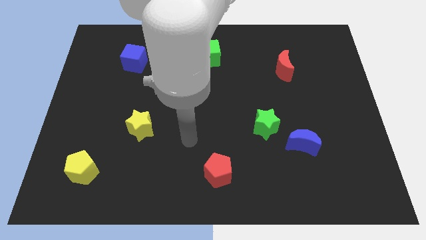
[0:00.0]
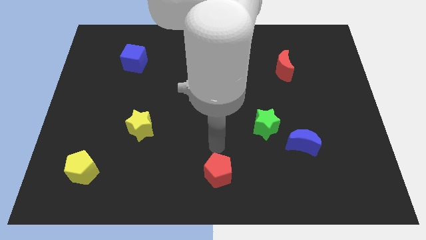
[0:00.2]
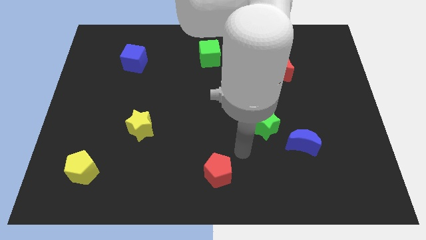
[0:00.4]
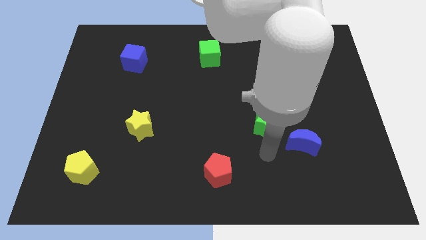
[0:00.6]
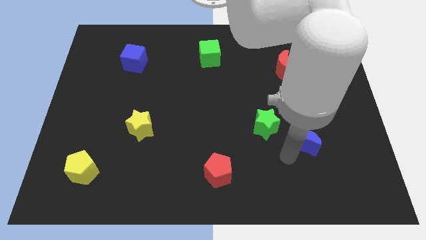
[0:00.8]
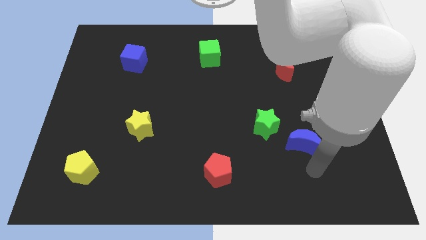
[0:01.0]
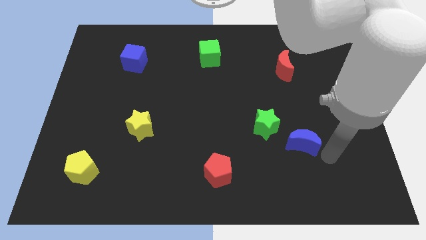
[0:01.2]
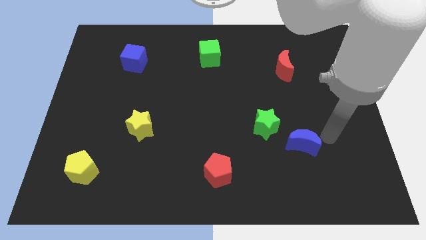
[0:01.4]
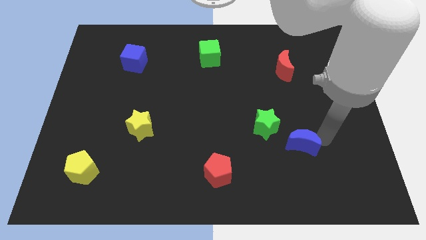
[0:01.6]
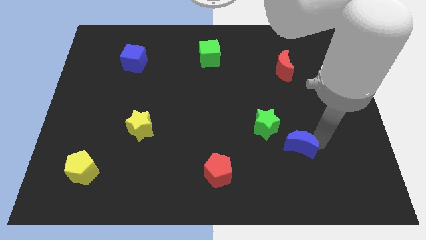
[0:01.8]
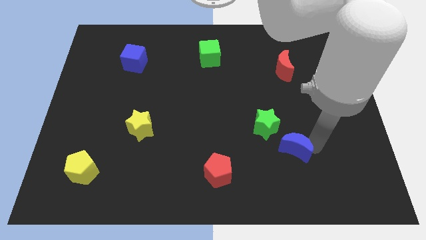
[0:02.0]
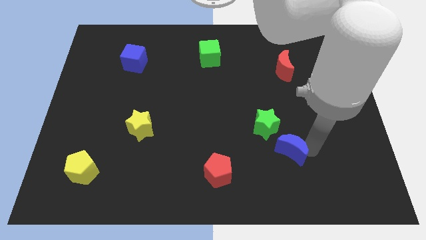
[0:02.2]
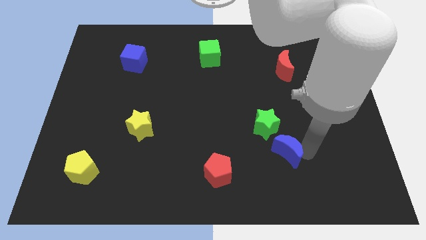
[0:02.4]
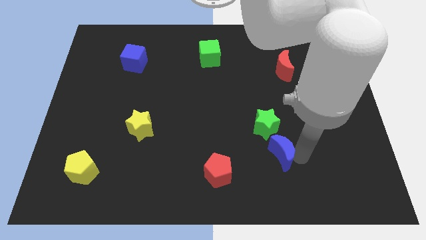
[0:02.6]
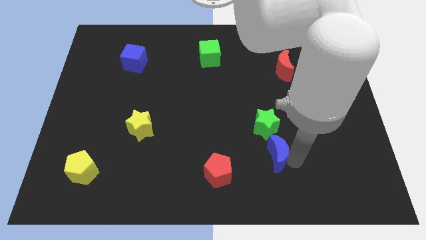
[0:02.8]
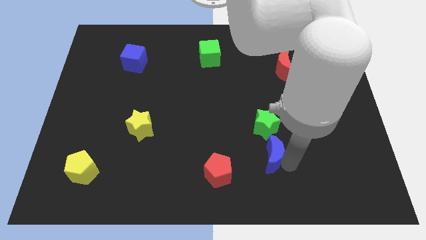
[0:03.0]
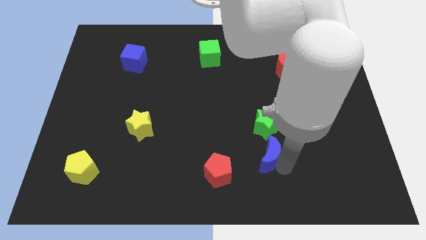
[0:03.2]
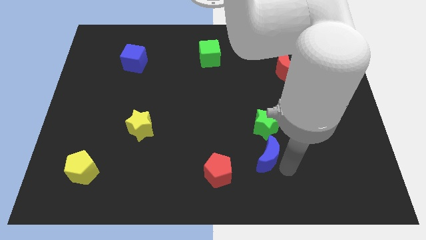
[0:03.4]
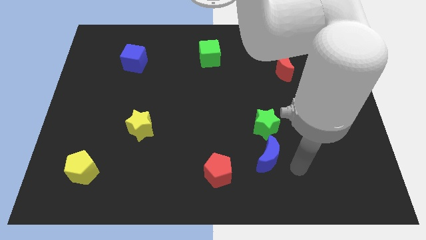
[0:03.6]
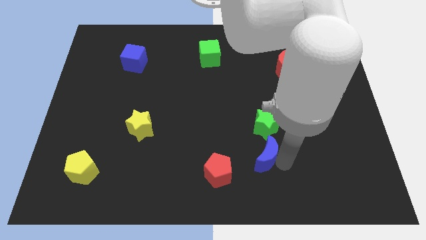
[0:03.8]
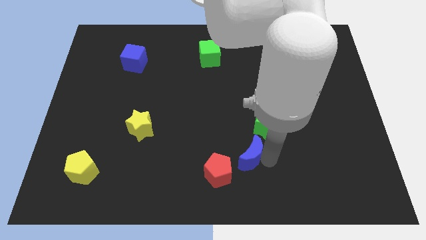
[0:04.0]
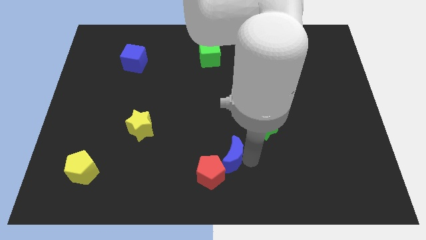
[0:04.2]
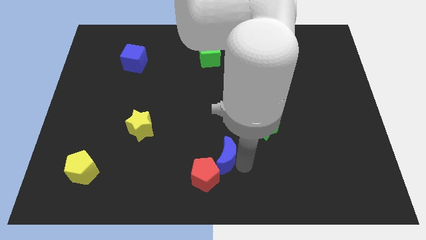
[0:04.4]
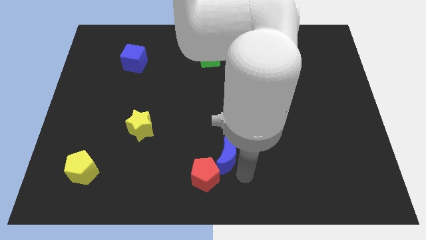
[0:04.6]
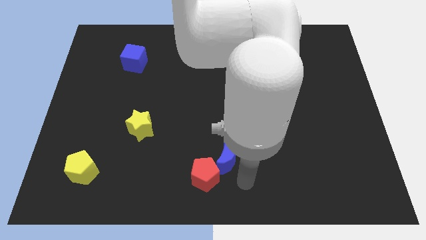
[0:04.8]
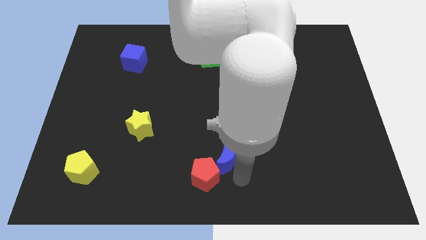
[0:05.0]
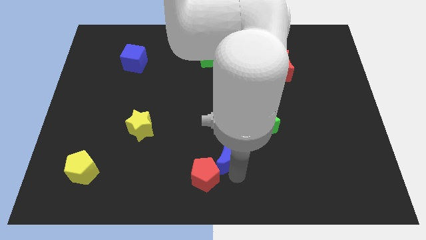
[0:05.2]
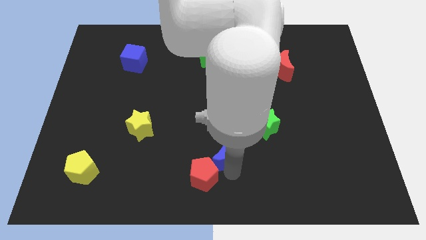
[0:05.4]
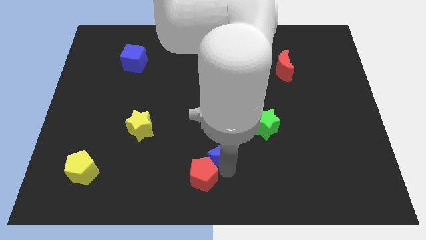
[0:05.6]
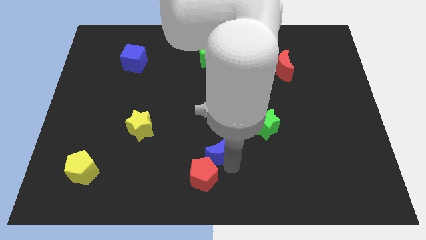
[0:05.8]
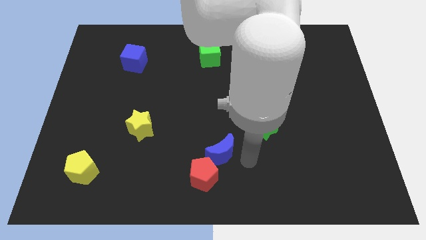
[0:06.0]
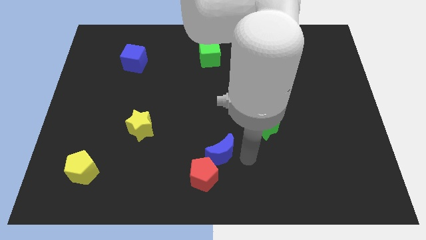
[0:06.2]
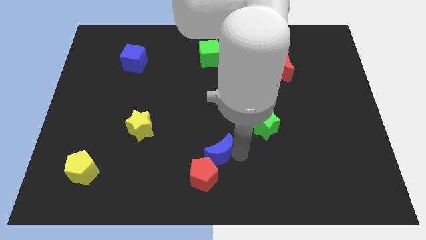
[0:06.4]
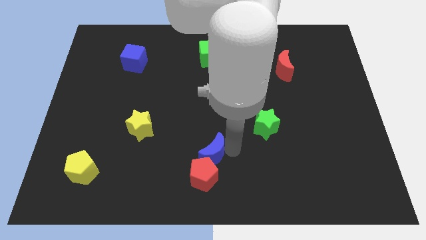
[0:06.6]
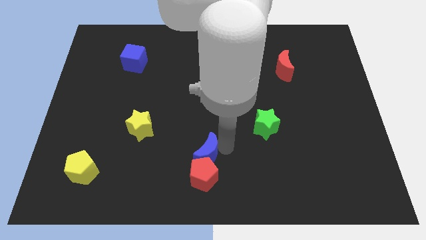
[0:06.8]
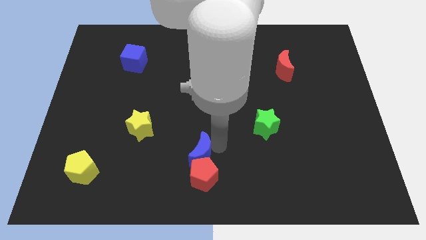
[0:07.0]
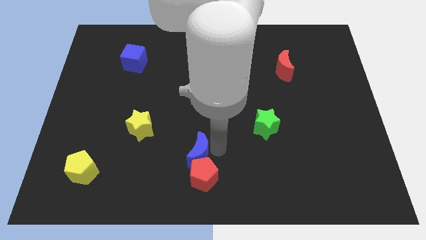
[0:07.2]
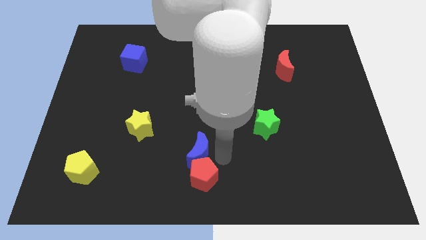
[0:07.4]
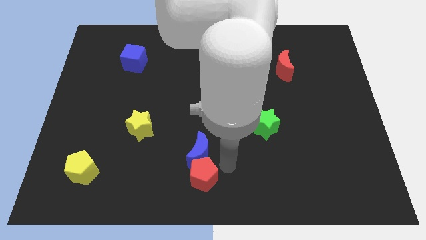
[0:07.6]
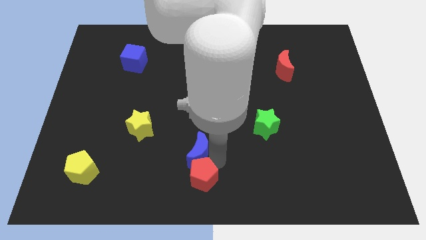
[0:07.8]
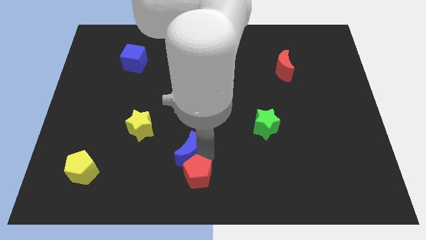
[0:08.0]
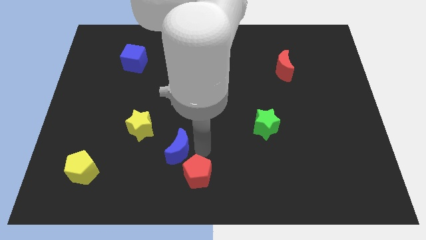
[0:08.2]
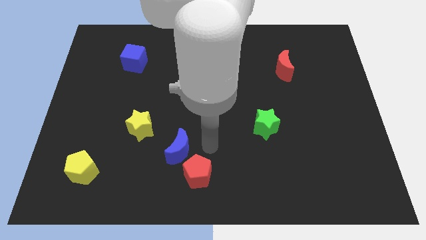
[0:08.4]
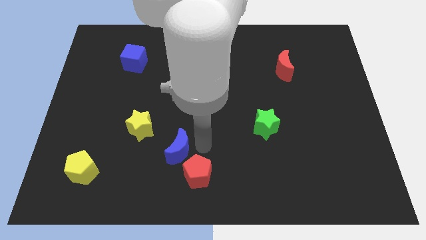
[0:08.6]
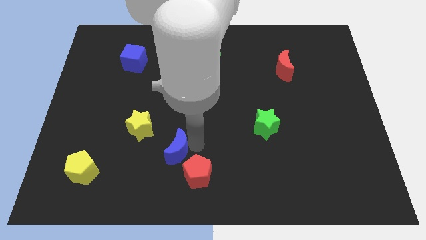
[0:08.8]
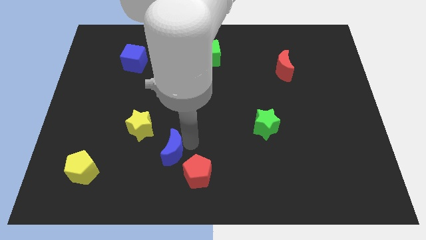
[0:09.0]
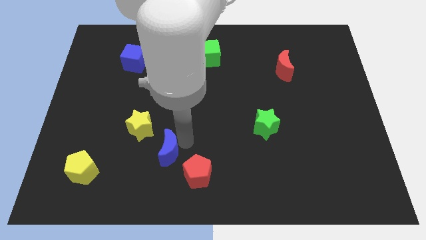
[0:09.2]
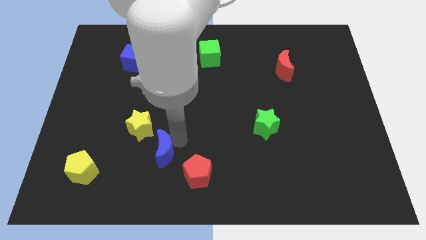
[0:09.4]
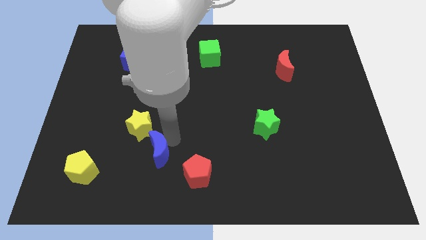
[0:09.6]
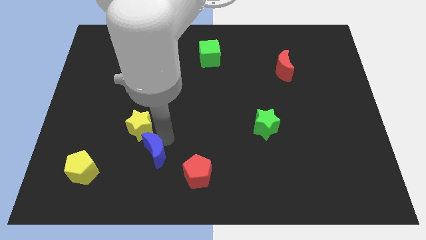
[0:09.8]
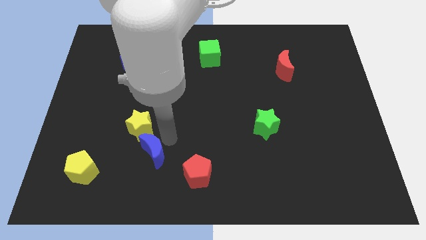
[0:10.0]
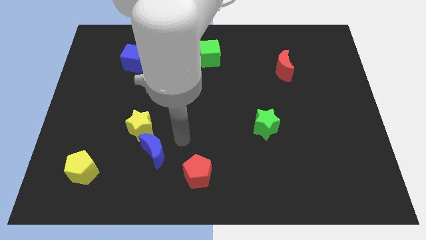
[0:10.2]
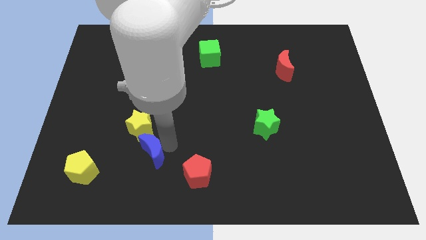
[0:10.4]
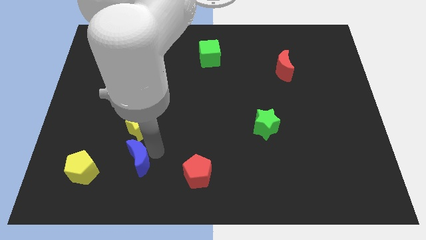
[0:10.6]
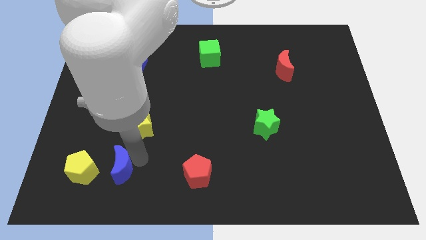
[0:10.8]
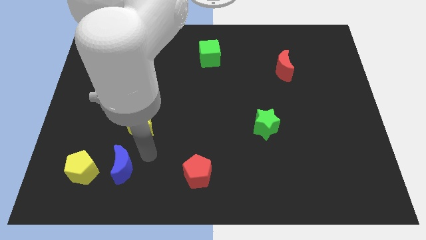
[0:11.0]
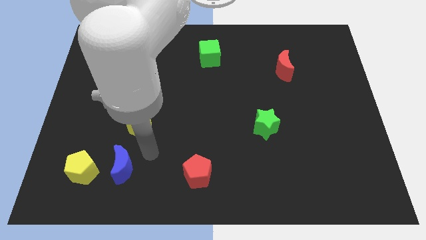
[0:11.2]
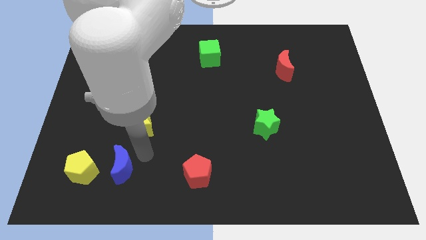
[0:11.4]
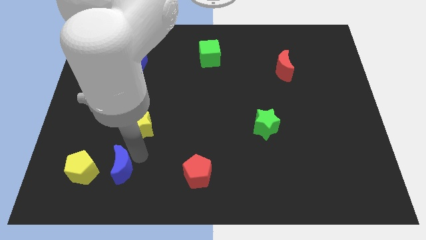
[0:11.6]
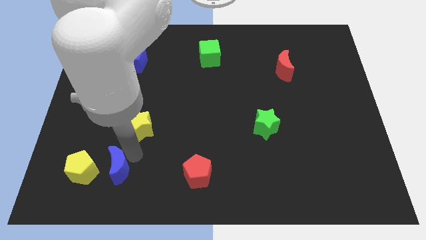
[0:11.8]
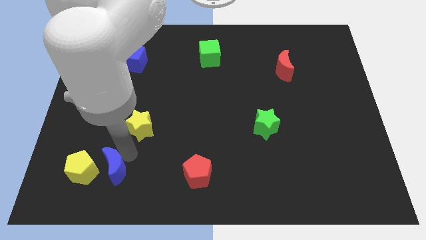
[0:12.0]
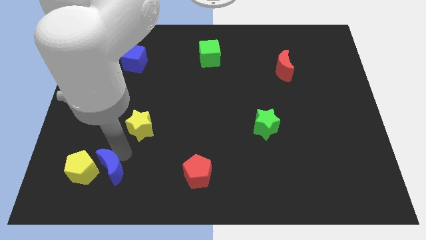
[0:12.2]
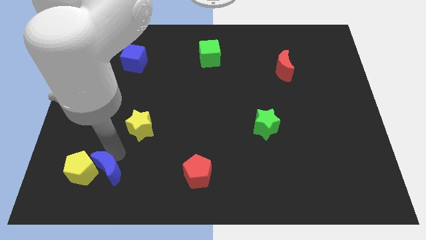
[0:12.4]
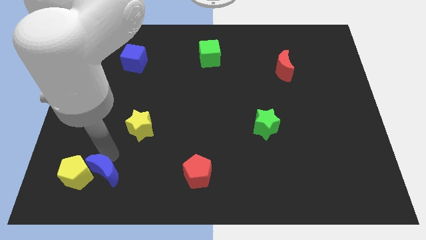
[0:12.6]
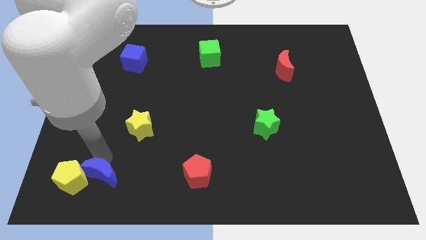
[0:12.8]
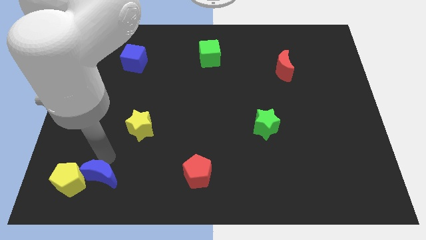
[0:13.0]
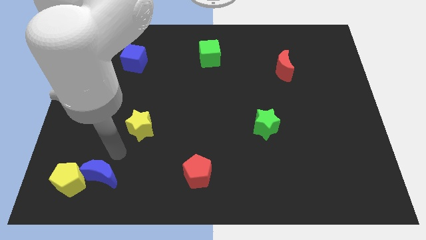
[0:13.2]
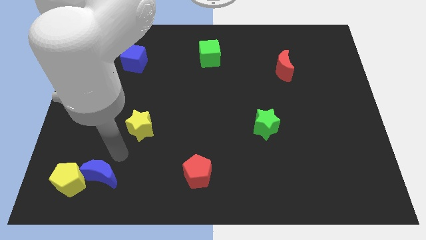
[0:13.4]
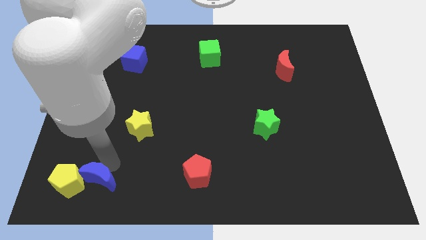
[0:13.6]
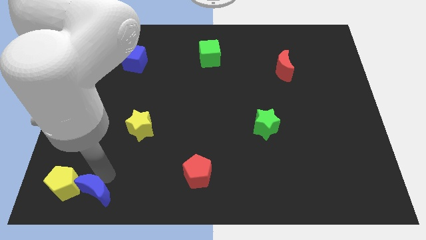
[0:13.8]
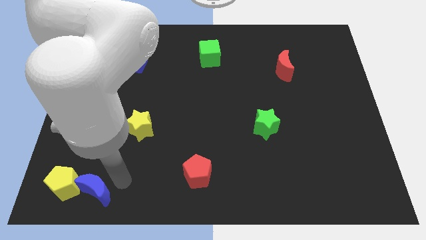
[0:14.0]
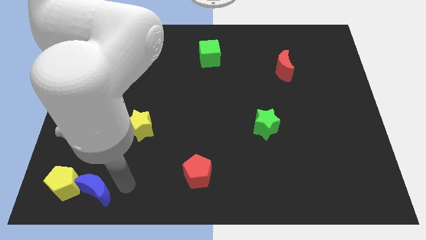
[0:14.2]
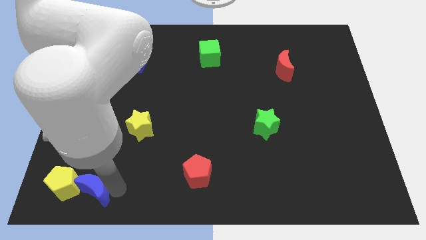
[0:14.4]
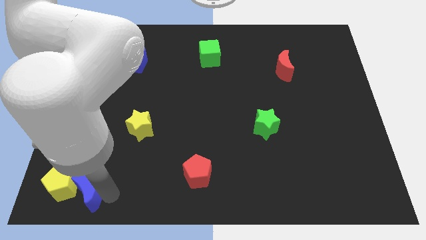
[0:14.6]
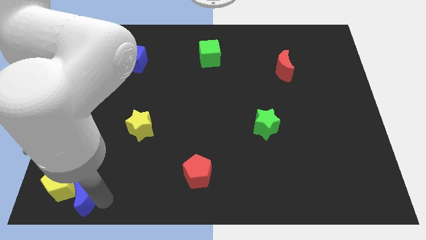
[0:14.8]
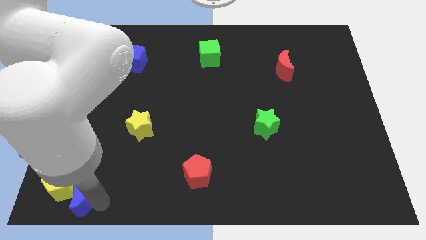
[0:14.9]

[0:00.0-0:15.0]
slide the blue moon to the bottom left
